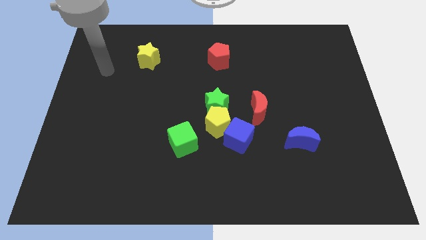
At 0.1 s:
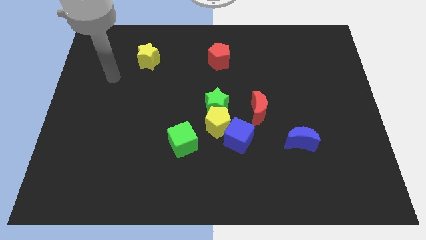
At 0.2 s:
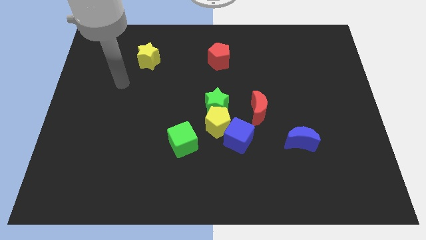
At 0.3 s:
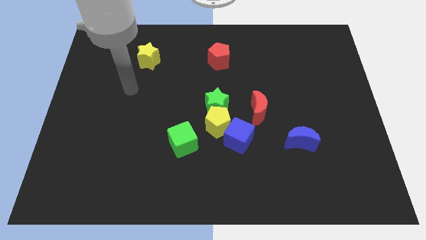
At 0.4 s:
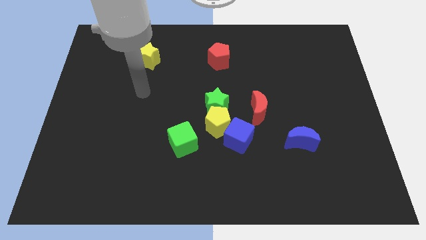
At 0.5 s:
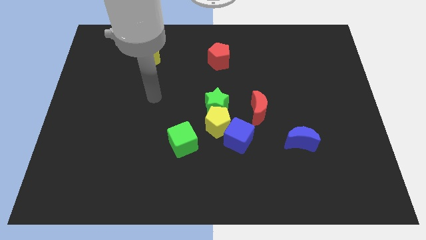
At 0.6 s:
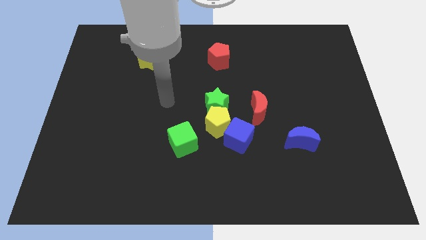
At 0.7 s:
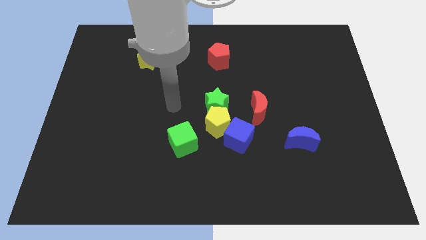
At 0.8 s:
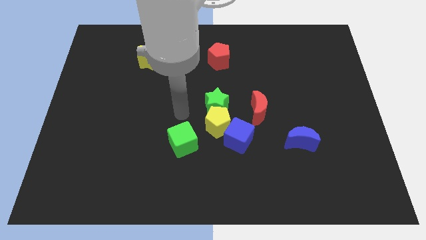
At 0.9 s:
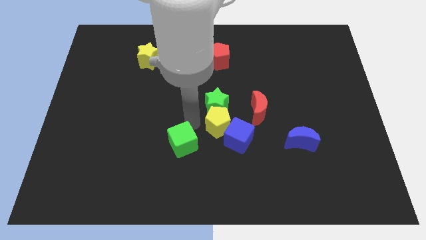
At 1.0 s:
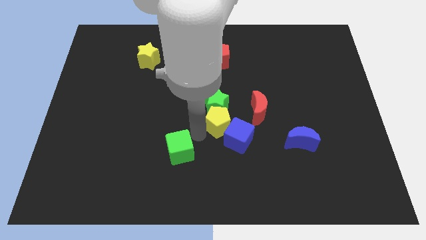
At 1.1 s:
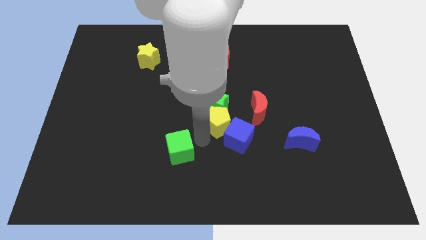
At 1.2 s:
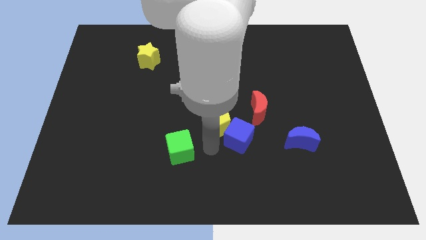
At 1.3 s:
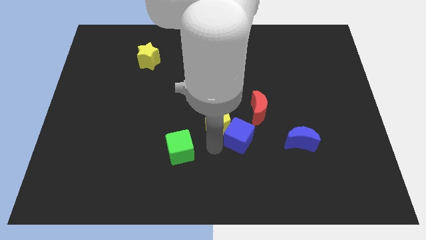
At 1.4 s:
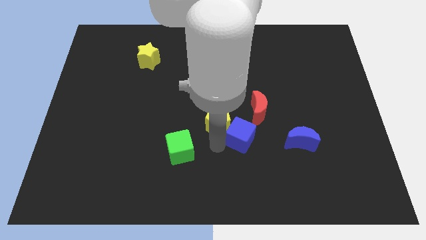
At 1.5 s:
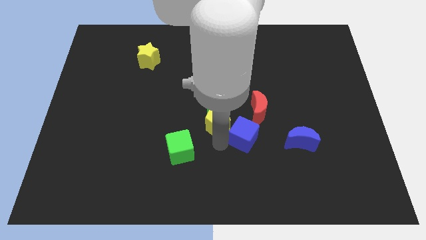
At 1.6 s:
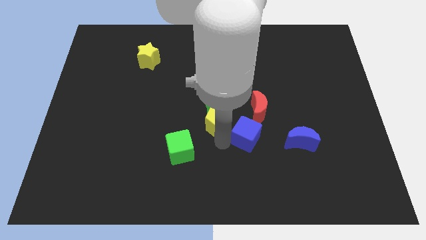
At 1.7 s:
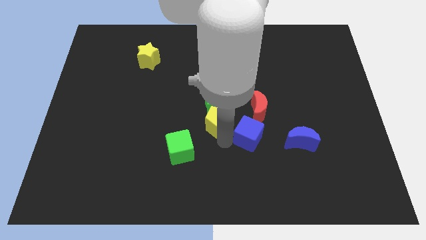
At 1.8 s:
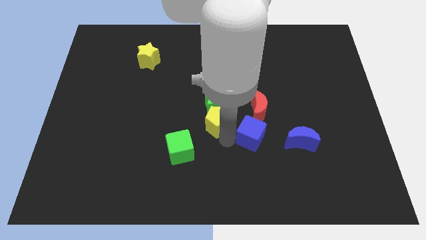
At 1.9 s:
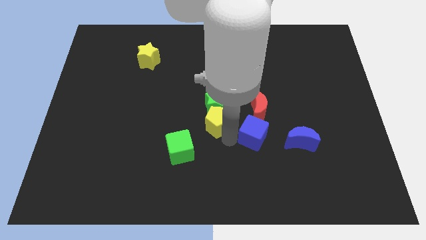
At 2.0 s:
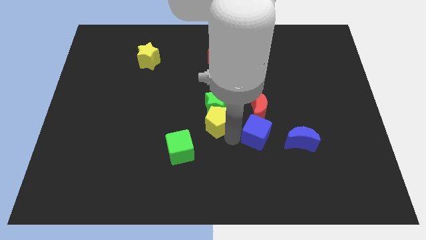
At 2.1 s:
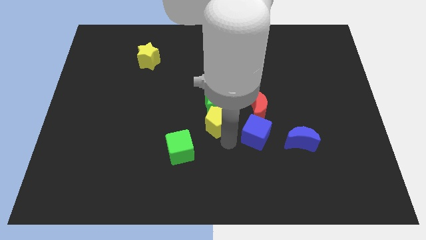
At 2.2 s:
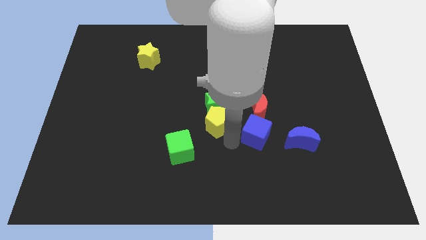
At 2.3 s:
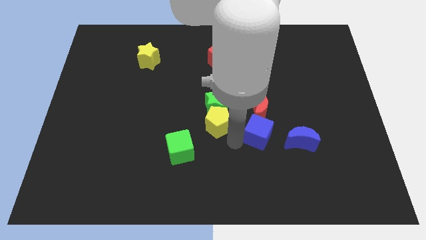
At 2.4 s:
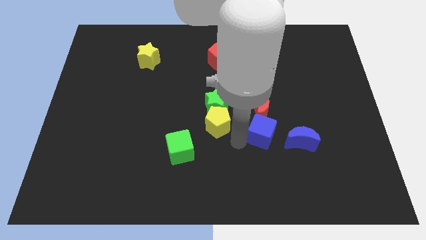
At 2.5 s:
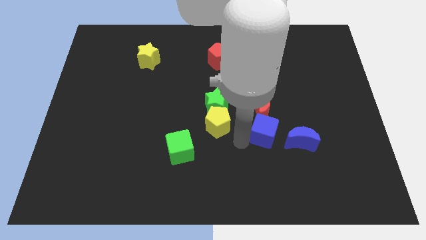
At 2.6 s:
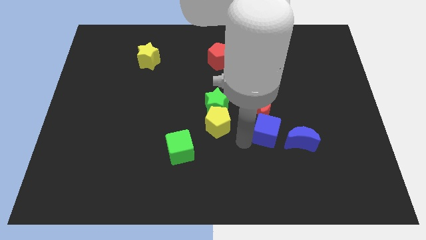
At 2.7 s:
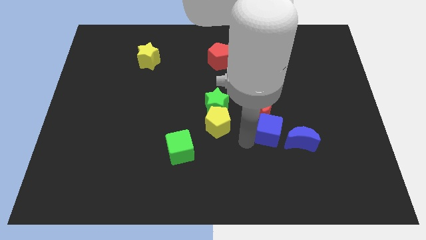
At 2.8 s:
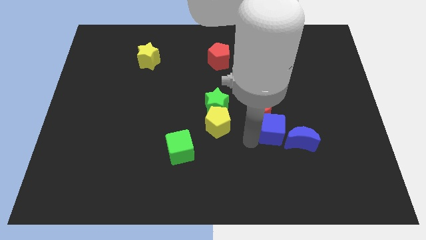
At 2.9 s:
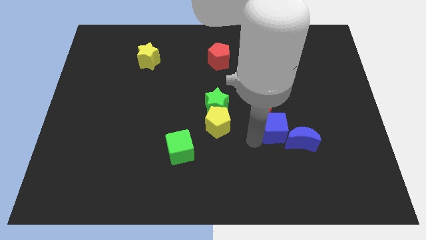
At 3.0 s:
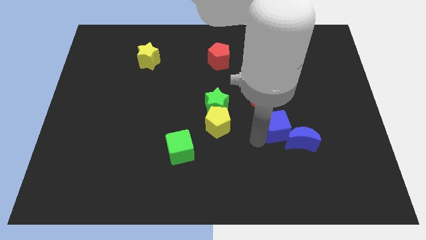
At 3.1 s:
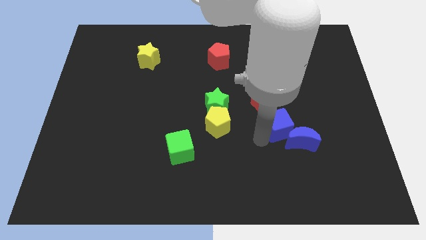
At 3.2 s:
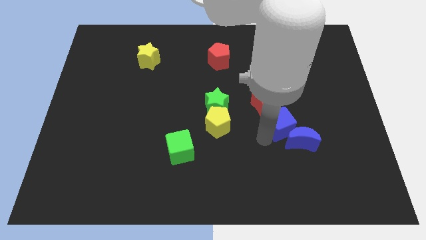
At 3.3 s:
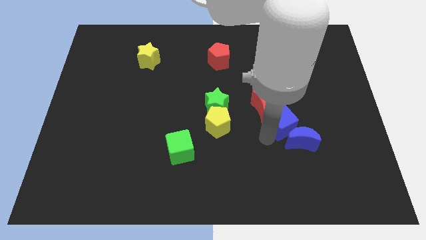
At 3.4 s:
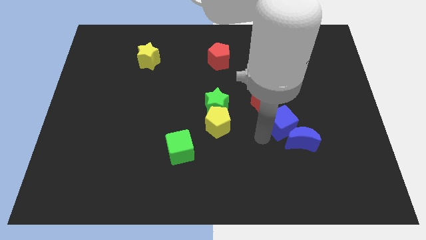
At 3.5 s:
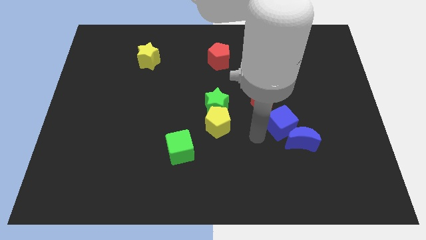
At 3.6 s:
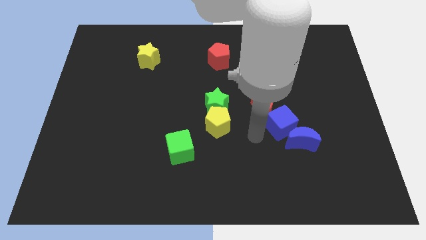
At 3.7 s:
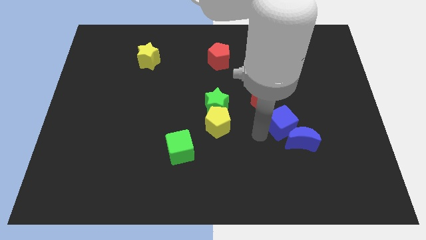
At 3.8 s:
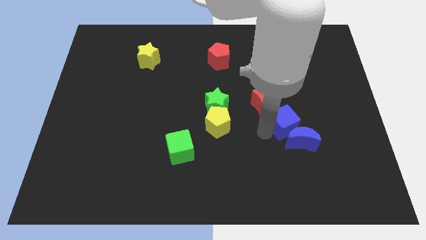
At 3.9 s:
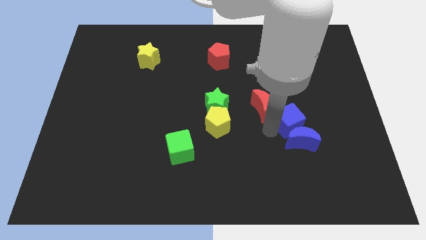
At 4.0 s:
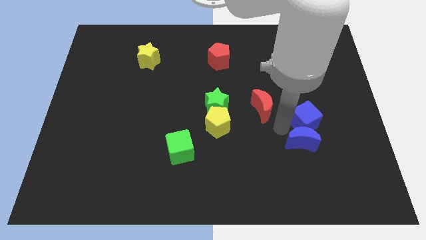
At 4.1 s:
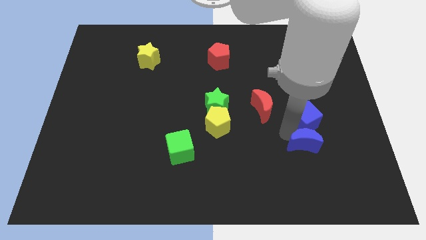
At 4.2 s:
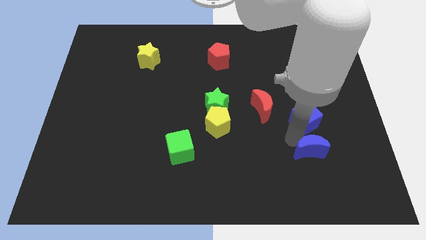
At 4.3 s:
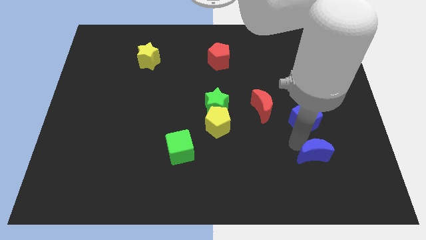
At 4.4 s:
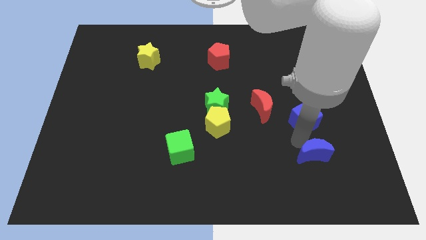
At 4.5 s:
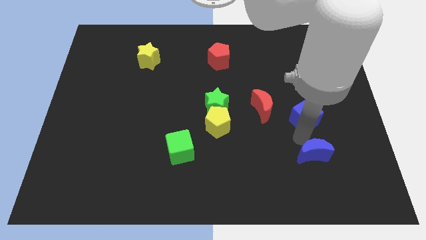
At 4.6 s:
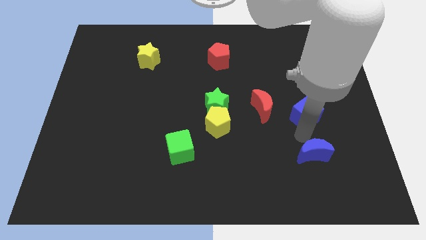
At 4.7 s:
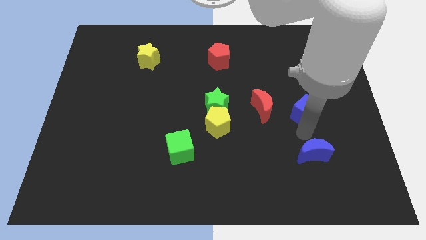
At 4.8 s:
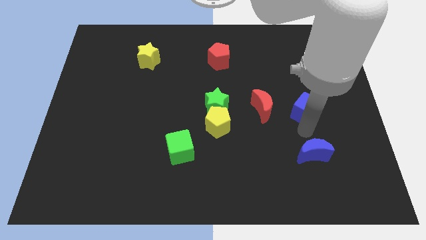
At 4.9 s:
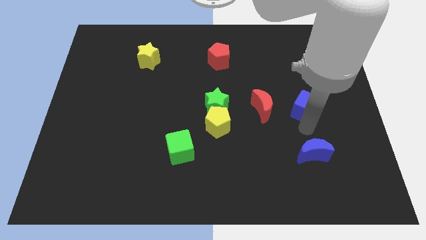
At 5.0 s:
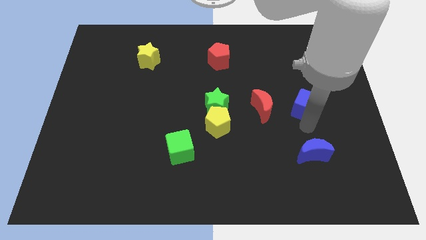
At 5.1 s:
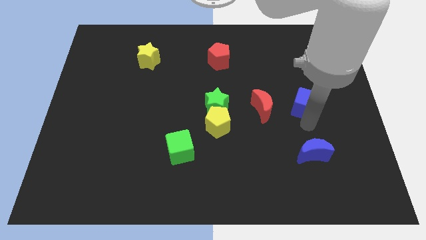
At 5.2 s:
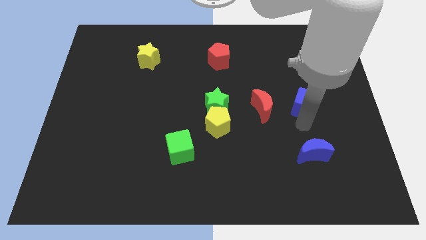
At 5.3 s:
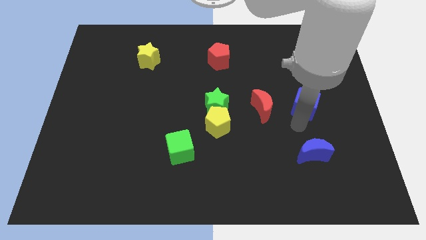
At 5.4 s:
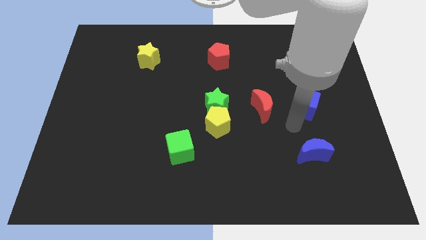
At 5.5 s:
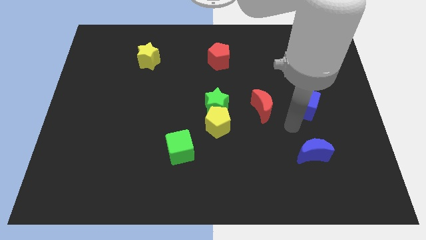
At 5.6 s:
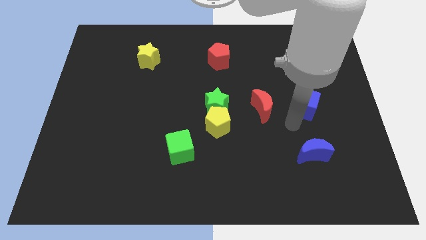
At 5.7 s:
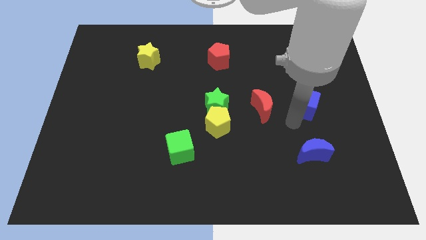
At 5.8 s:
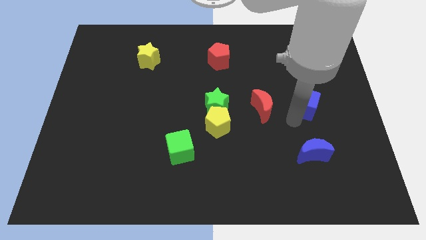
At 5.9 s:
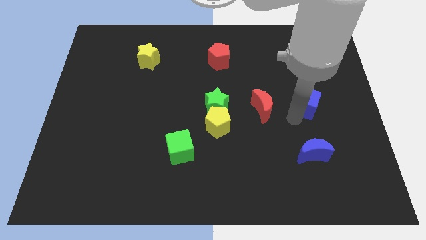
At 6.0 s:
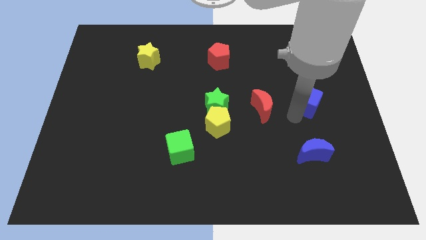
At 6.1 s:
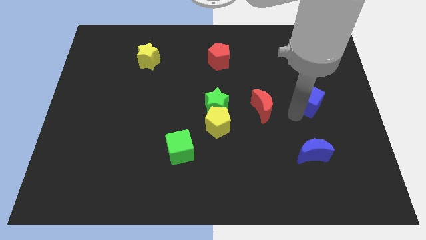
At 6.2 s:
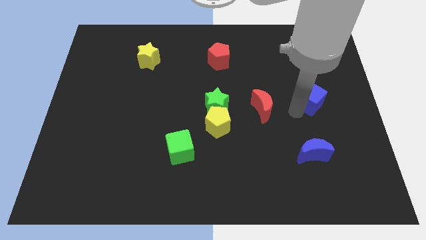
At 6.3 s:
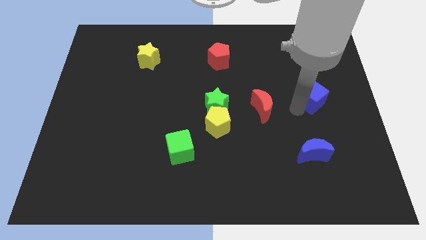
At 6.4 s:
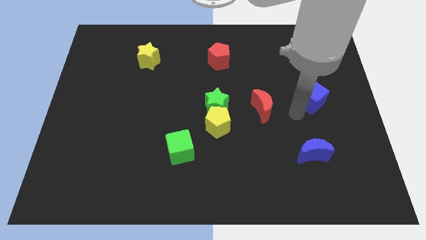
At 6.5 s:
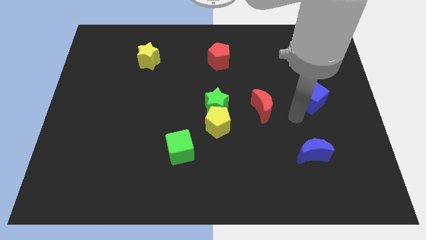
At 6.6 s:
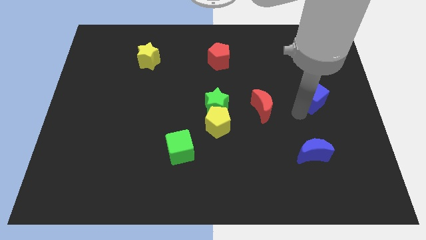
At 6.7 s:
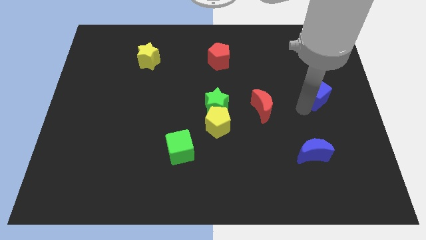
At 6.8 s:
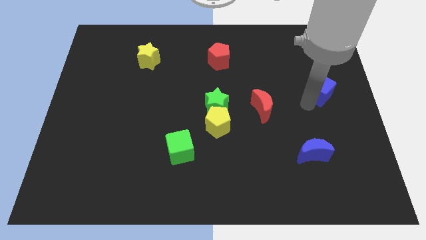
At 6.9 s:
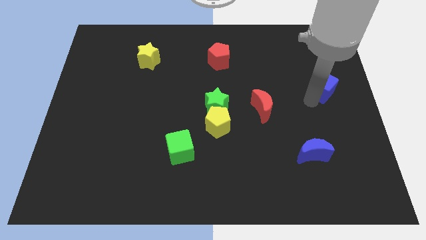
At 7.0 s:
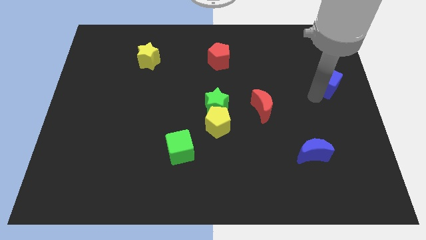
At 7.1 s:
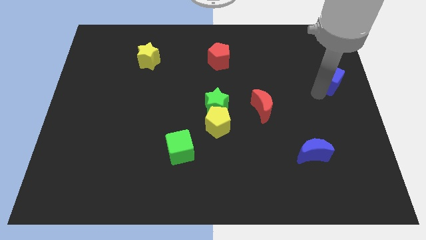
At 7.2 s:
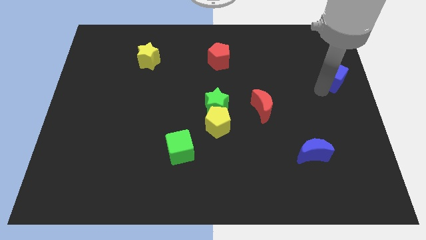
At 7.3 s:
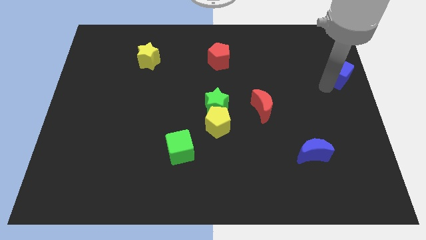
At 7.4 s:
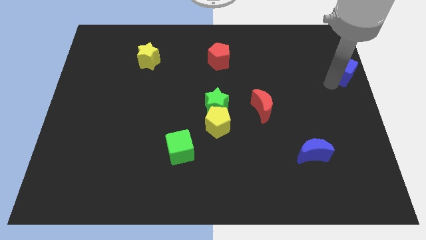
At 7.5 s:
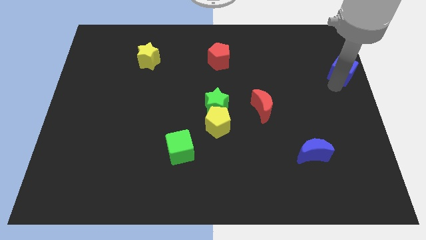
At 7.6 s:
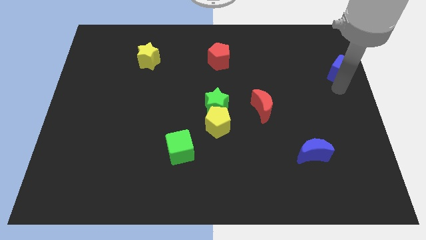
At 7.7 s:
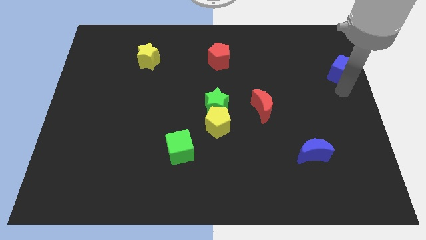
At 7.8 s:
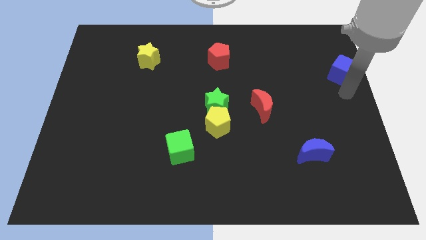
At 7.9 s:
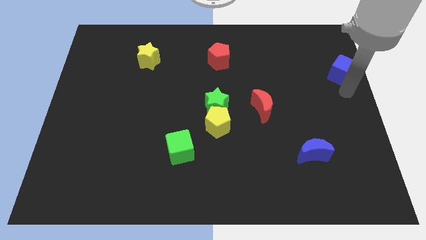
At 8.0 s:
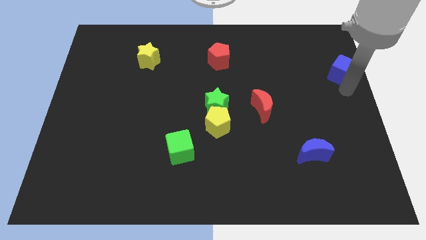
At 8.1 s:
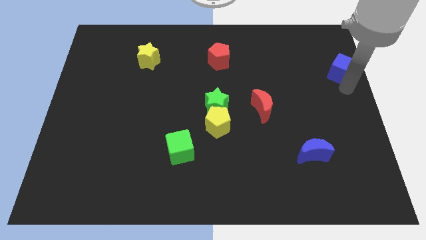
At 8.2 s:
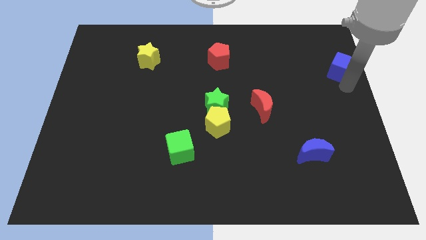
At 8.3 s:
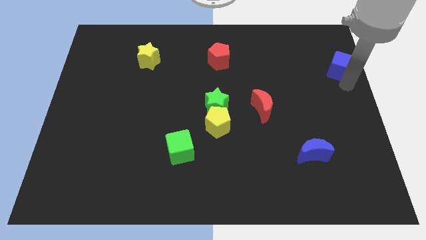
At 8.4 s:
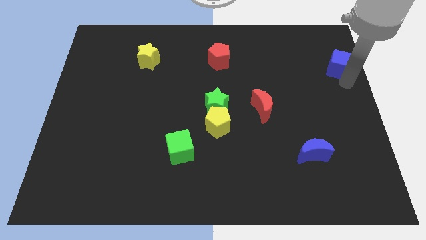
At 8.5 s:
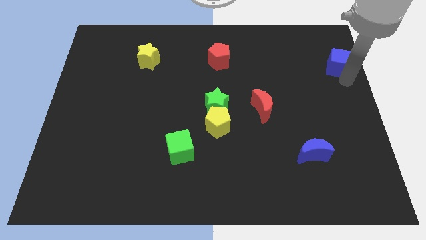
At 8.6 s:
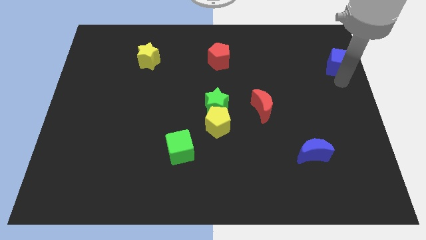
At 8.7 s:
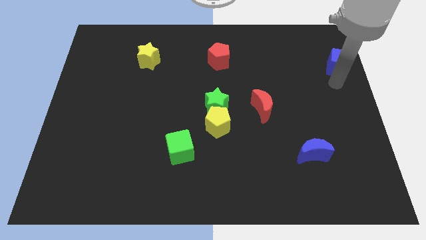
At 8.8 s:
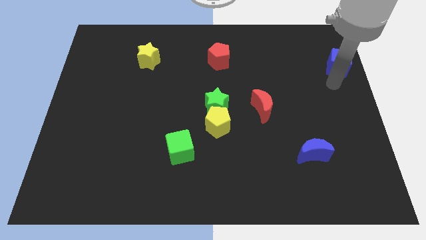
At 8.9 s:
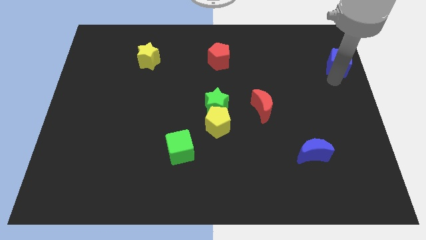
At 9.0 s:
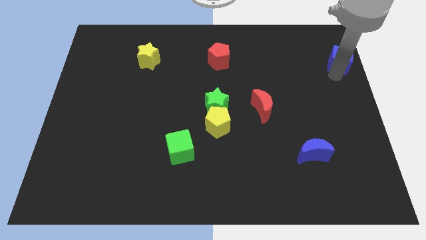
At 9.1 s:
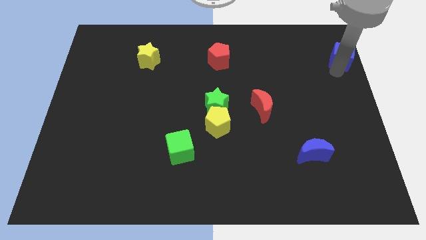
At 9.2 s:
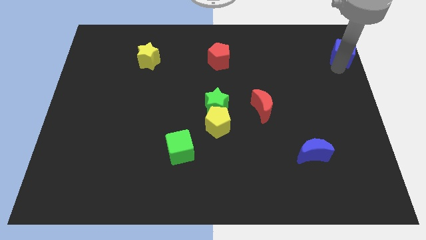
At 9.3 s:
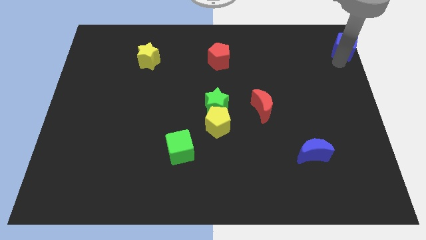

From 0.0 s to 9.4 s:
slide the blue cube to the top right
